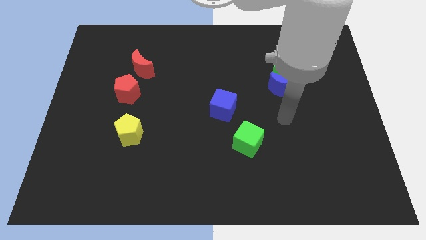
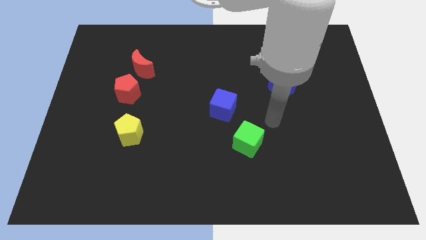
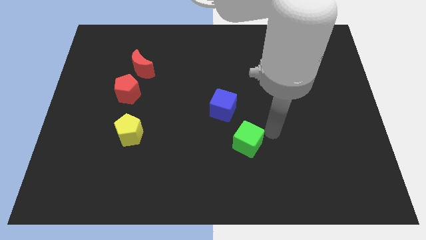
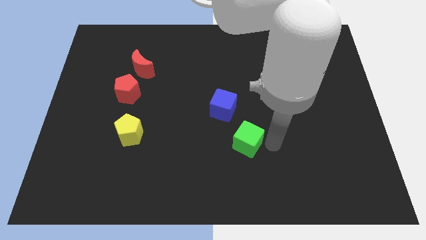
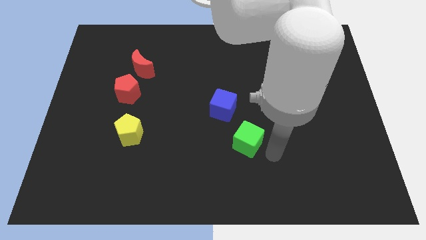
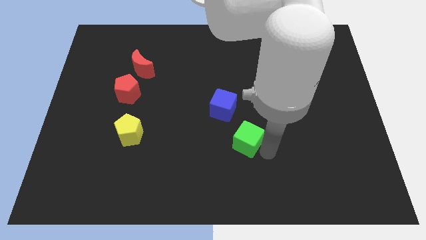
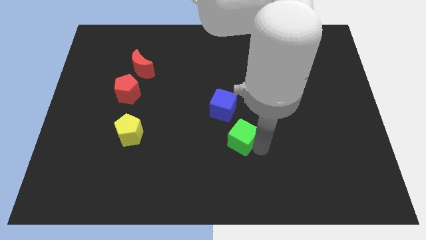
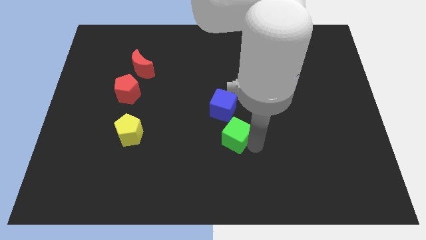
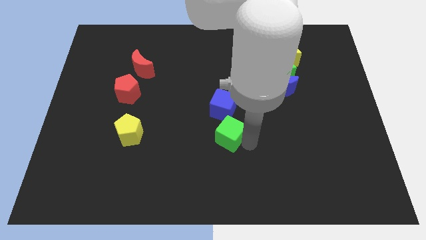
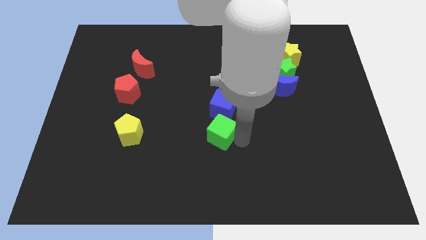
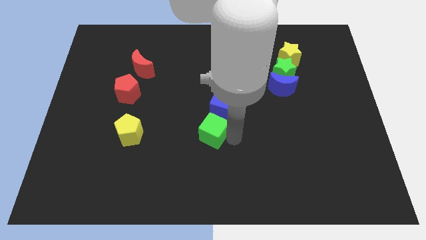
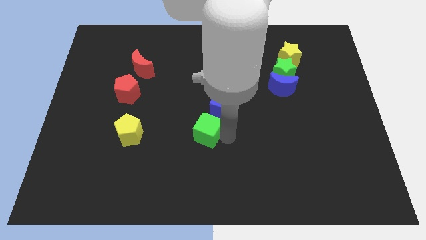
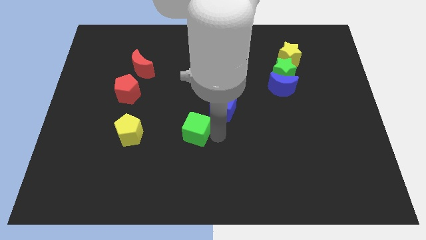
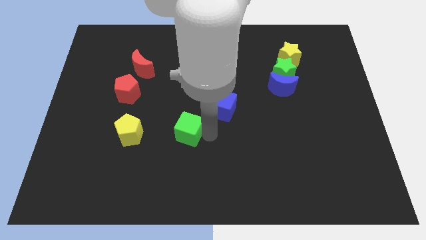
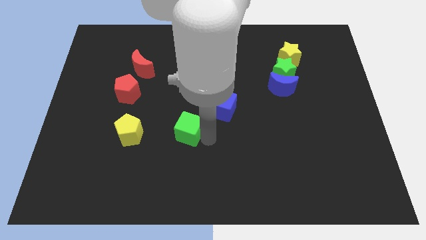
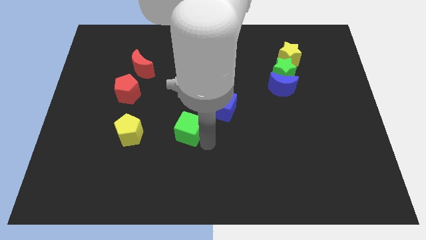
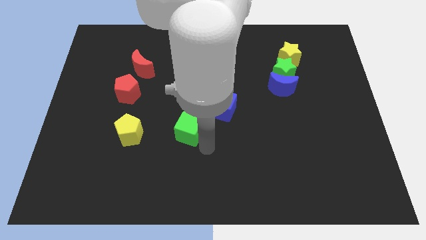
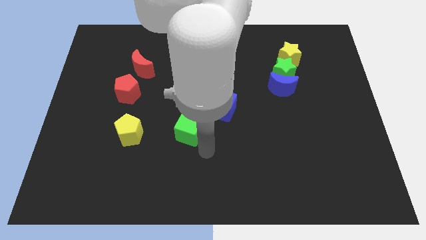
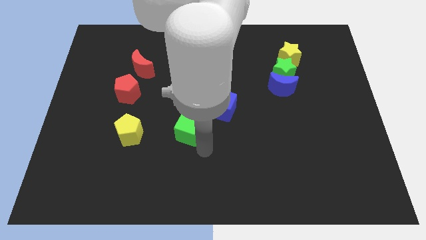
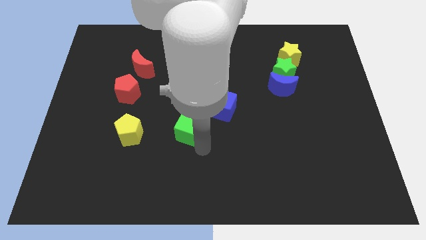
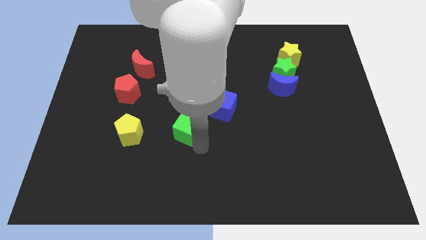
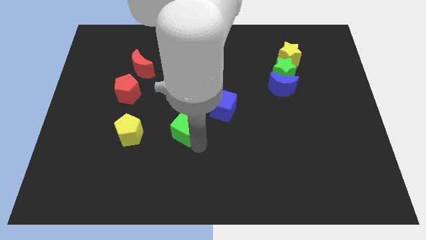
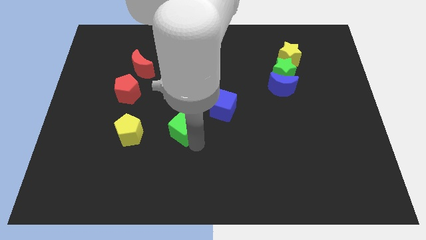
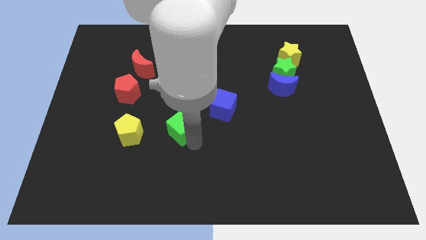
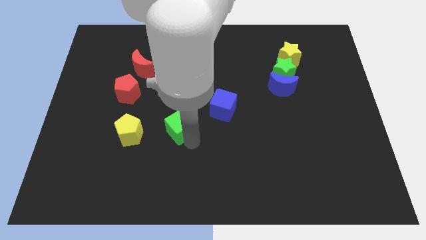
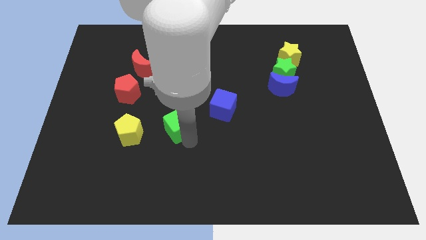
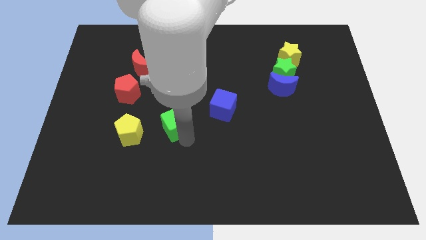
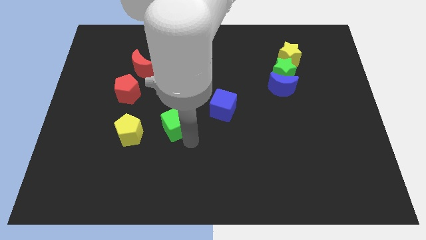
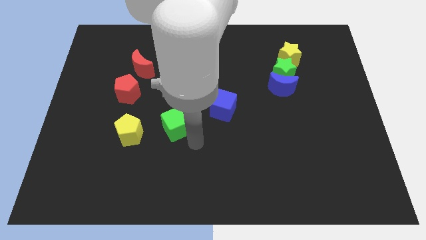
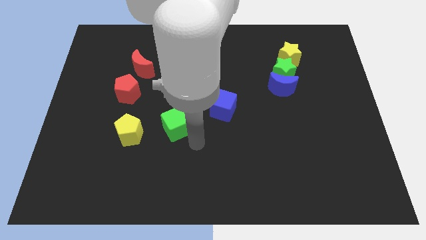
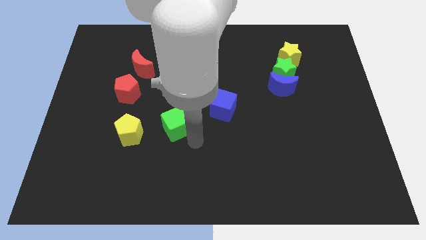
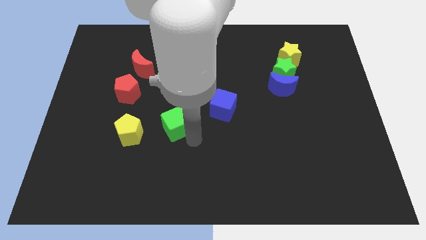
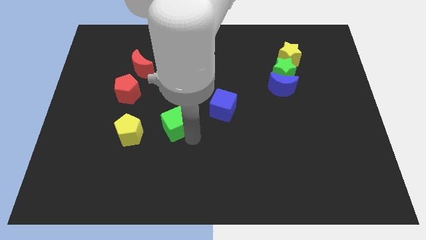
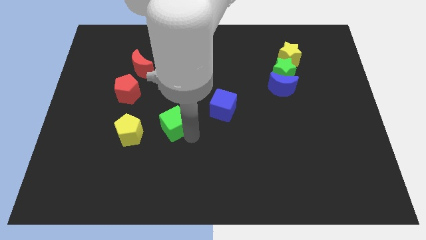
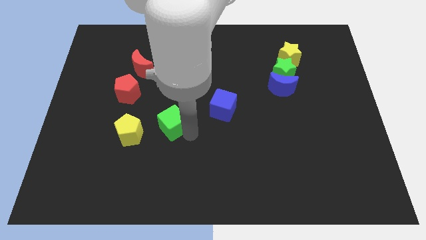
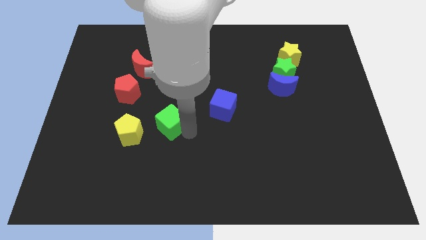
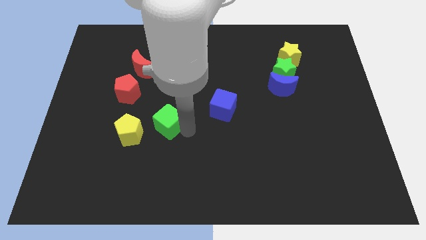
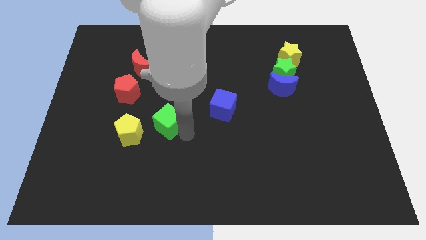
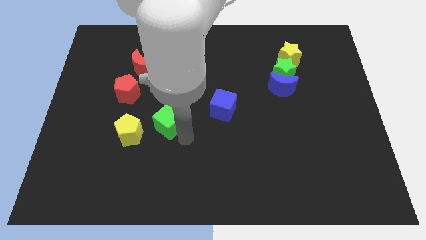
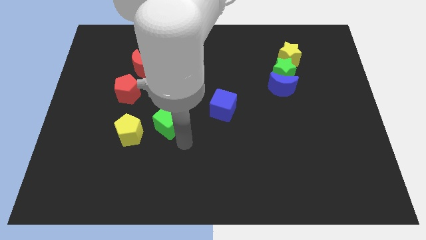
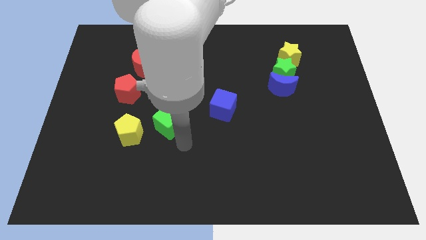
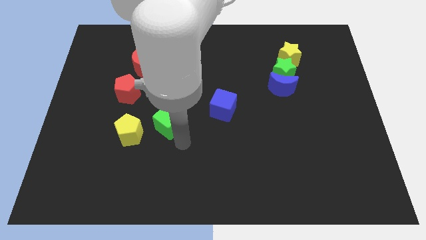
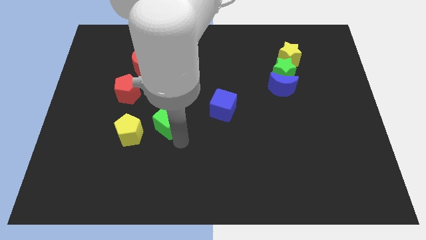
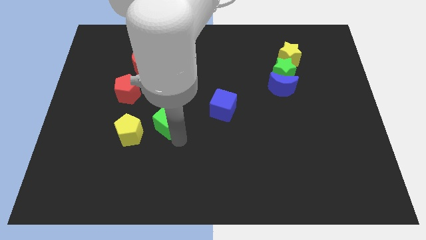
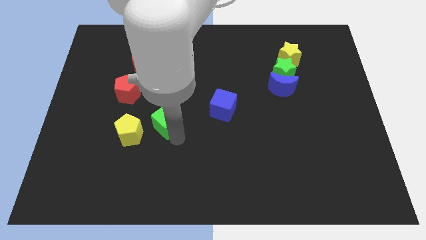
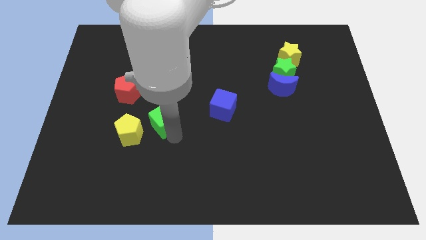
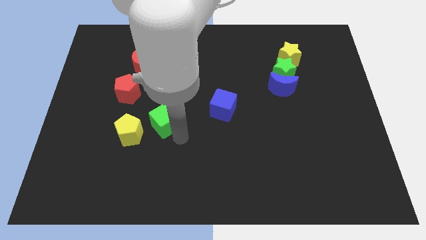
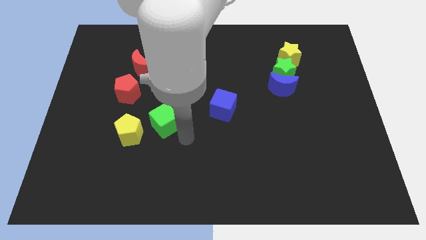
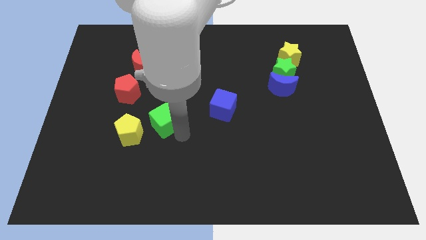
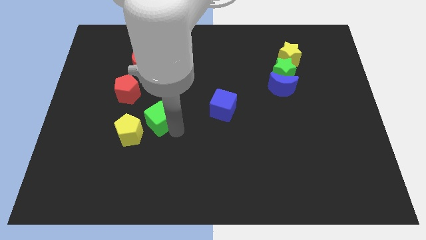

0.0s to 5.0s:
move the green cube diagonally down and to the right of the red pentagon

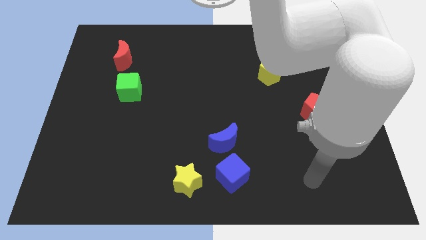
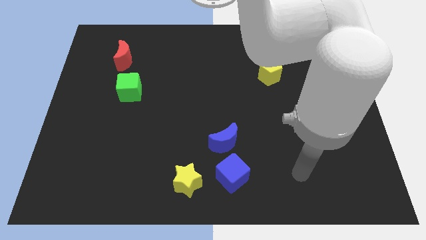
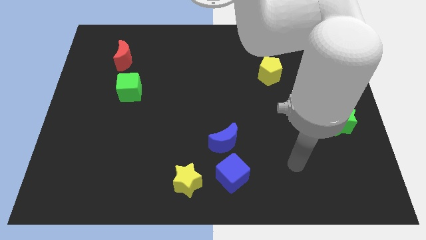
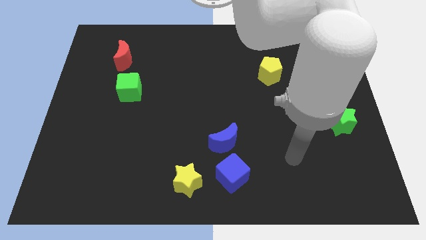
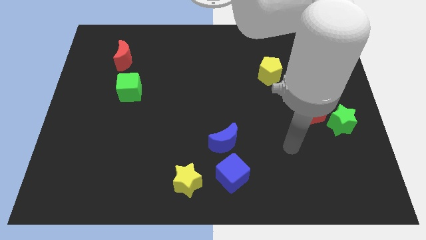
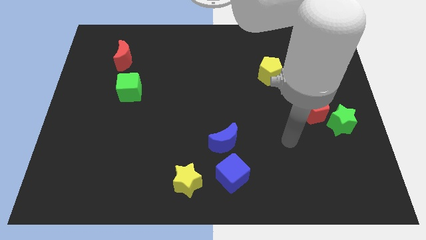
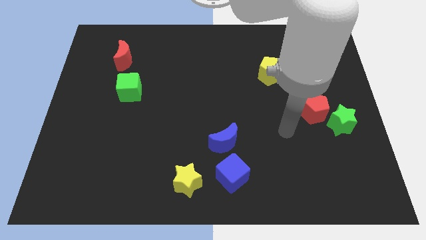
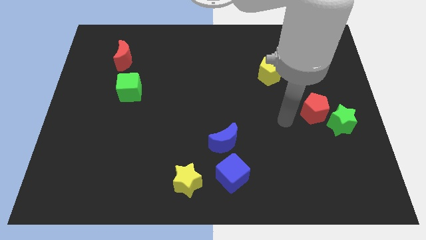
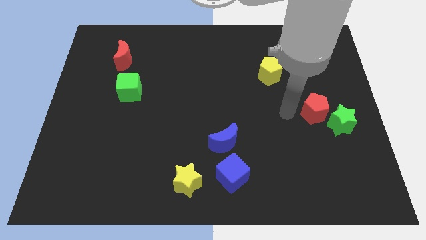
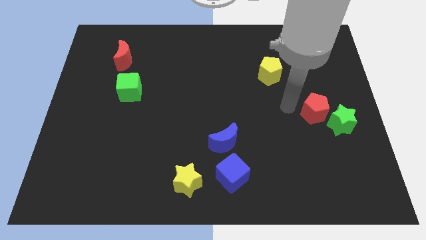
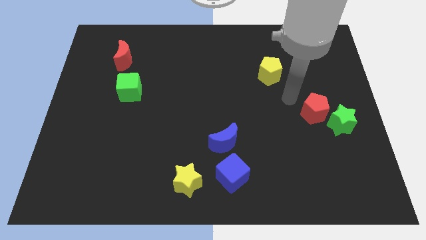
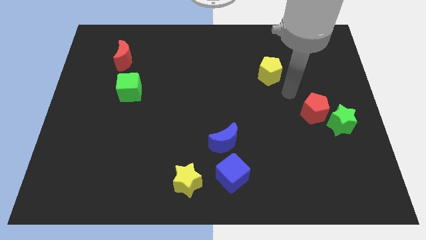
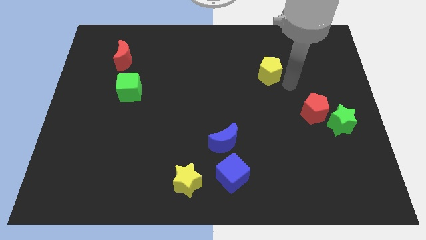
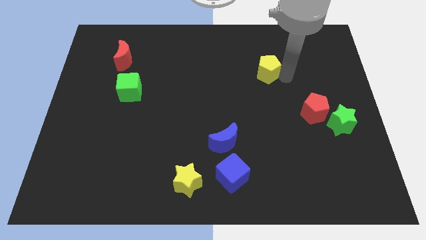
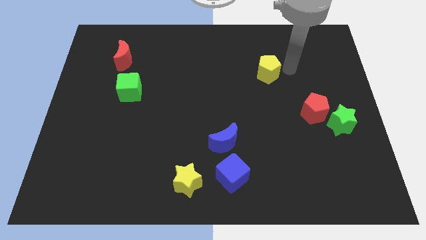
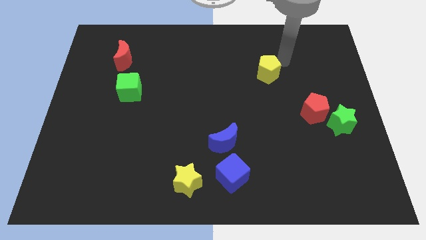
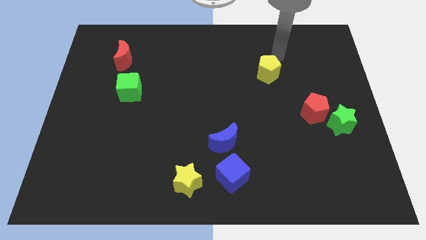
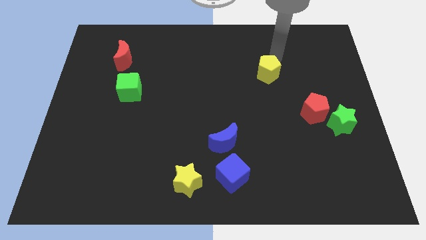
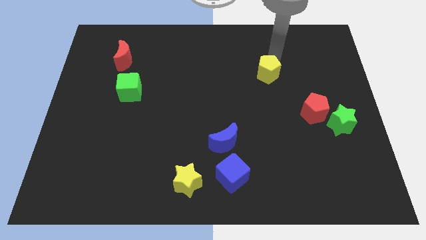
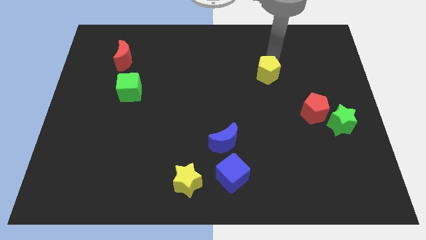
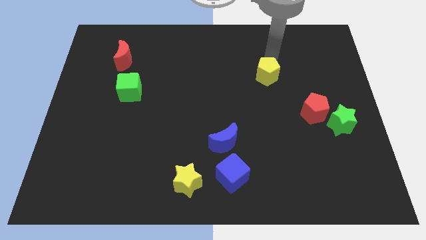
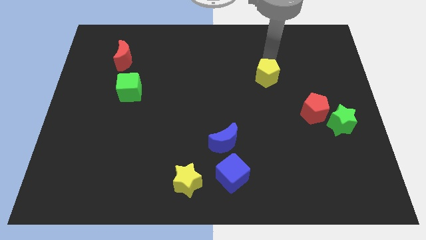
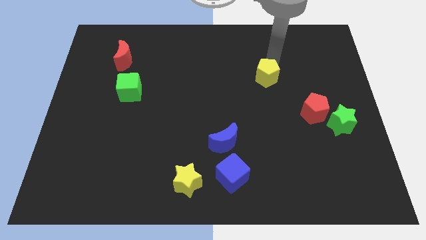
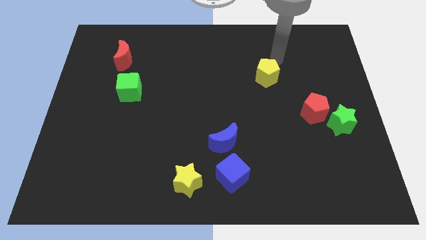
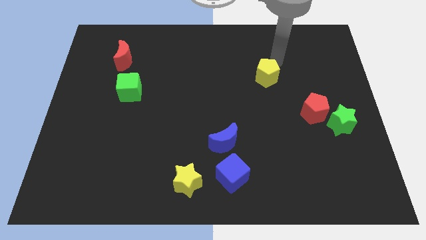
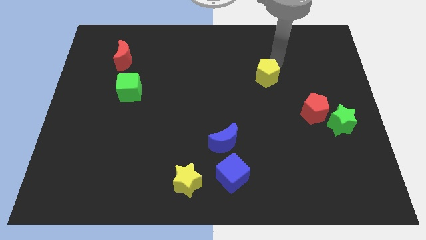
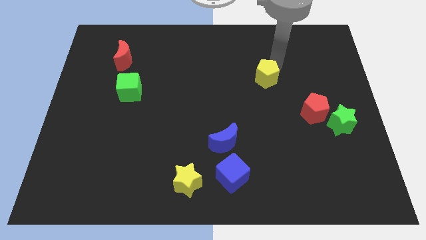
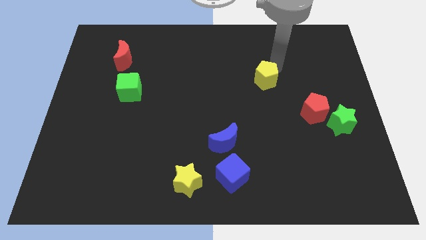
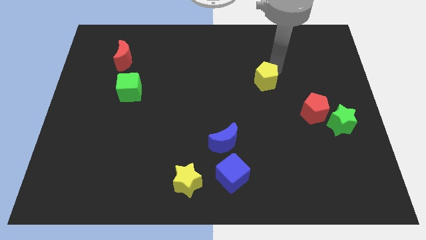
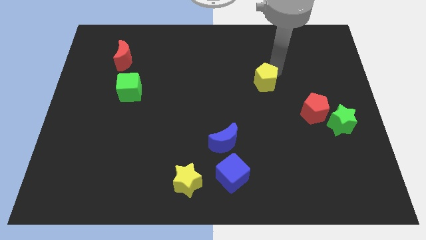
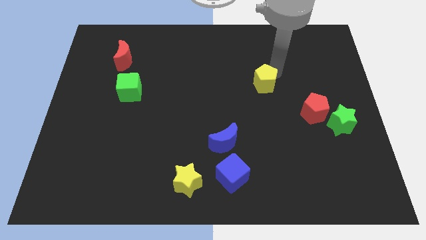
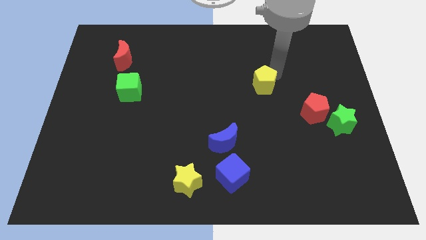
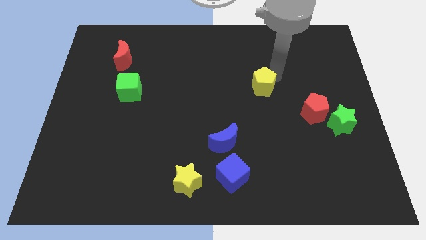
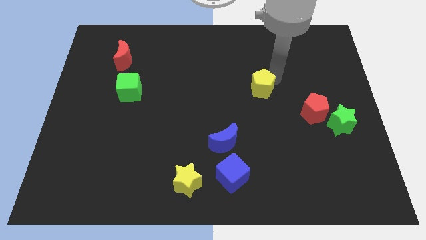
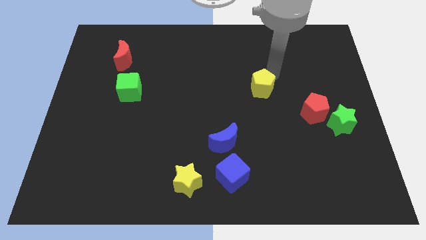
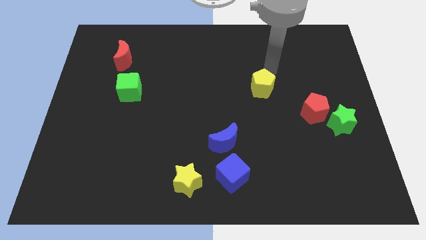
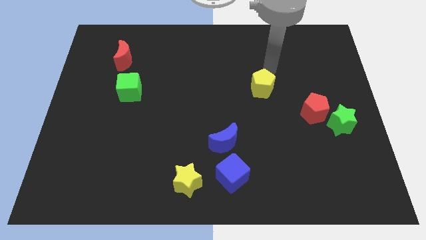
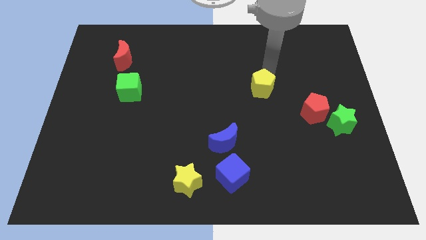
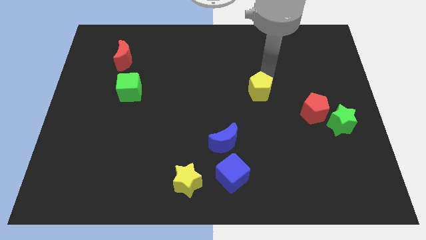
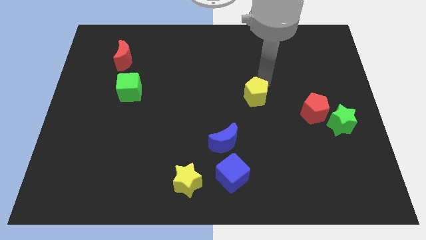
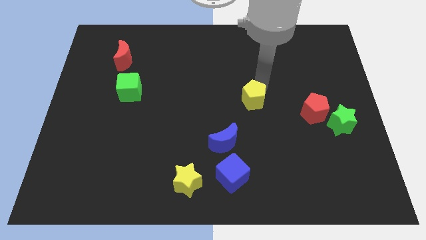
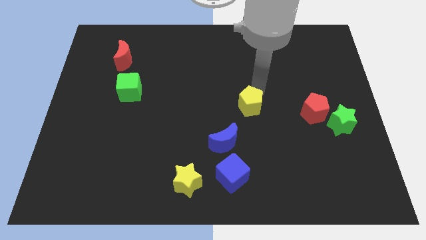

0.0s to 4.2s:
slide the yellow pentagon to the top right of the blue moon
